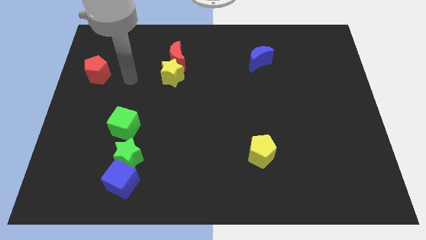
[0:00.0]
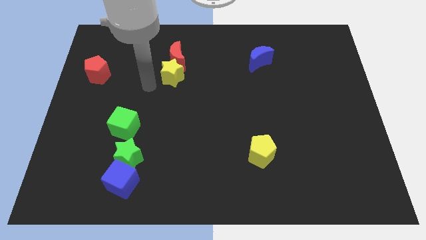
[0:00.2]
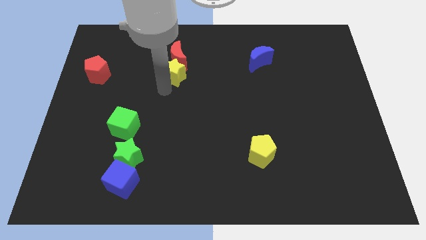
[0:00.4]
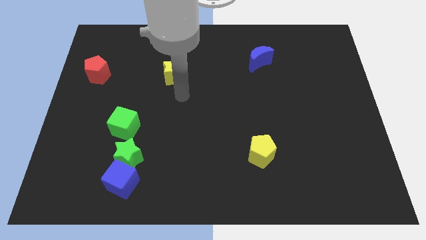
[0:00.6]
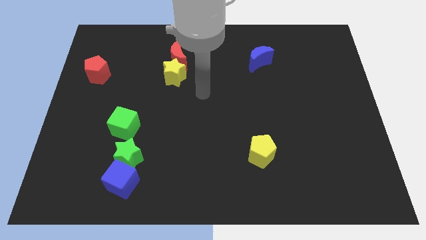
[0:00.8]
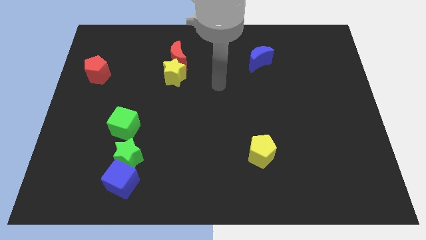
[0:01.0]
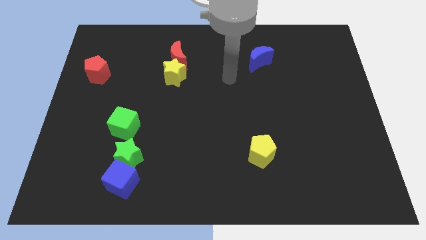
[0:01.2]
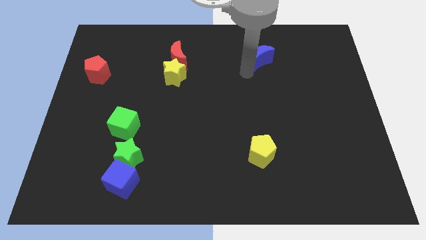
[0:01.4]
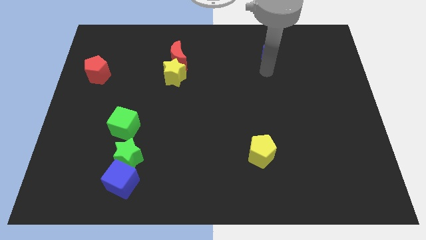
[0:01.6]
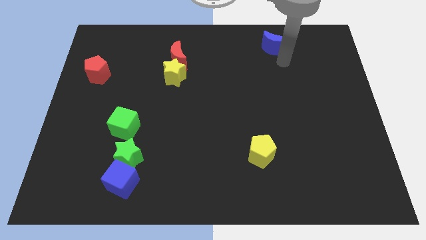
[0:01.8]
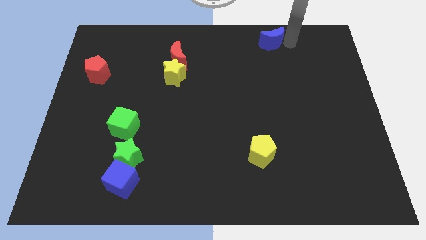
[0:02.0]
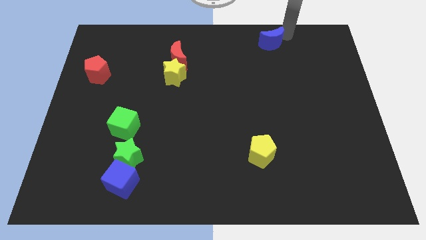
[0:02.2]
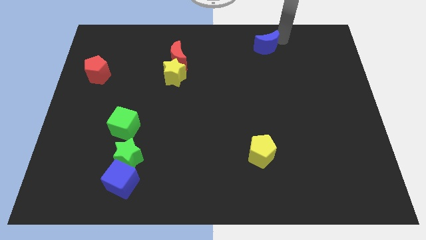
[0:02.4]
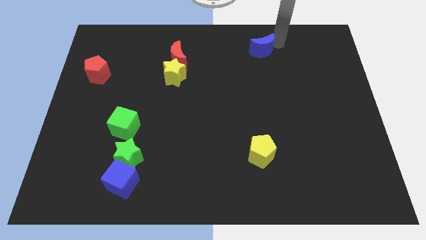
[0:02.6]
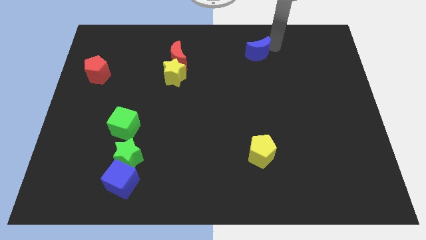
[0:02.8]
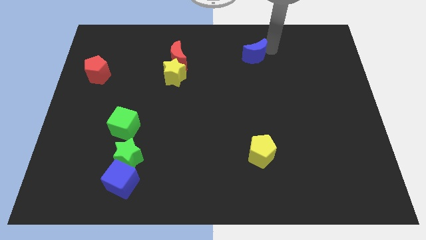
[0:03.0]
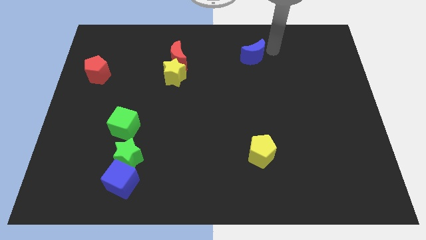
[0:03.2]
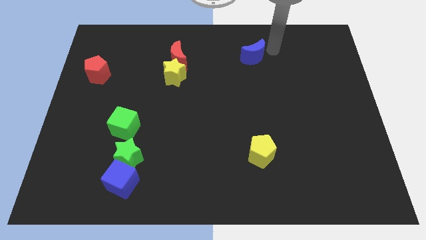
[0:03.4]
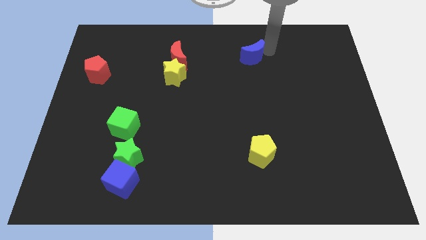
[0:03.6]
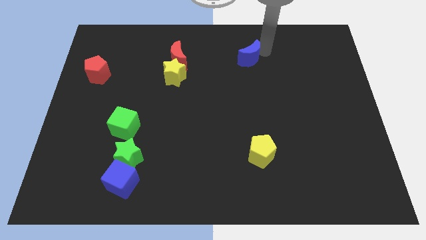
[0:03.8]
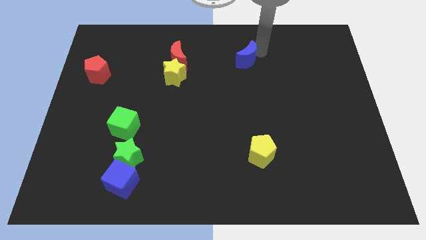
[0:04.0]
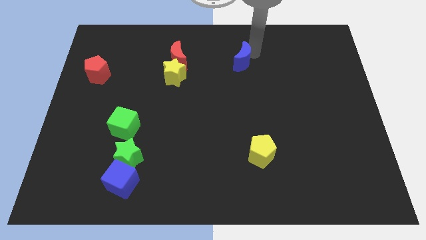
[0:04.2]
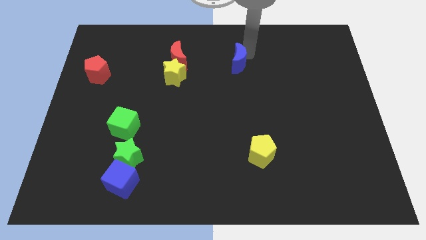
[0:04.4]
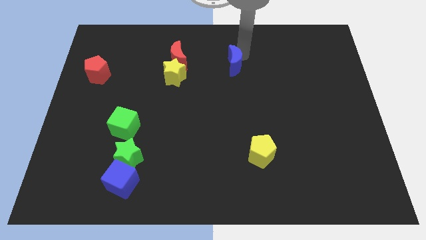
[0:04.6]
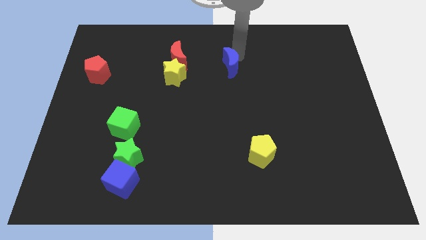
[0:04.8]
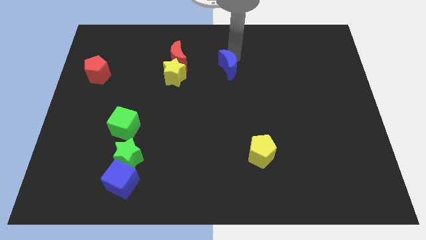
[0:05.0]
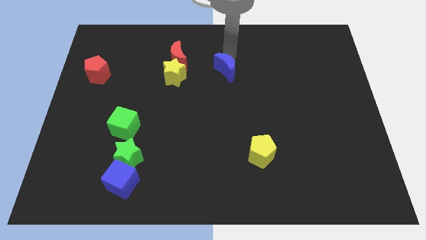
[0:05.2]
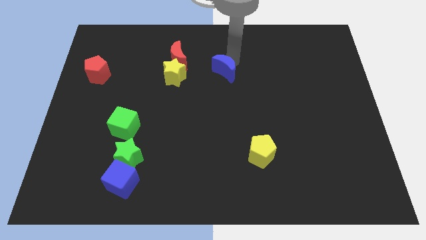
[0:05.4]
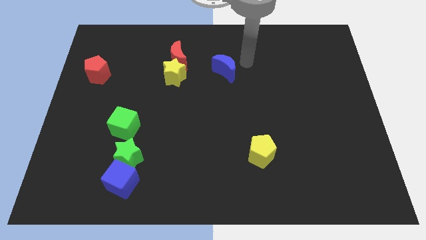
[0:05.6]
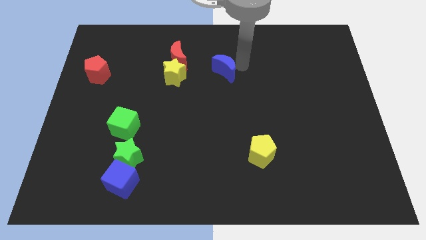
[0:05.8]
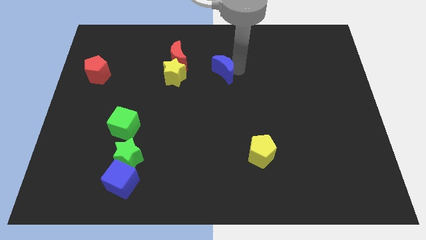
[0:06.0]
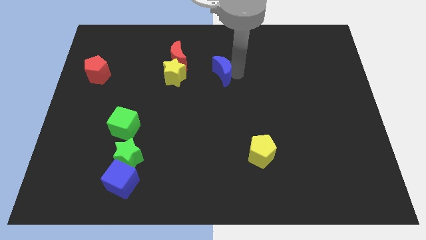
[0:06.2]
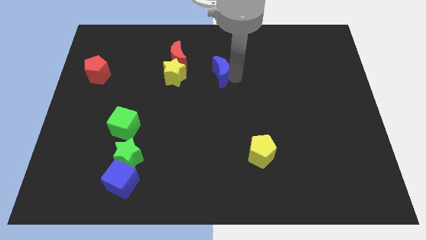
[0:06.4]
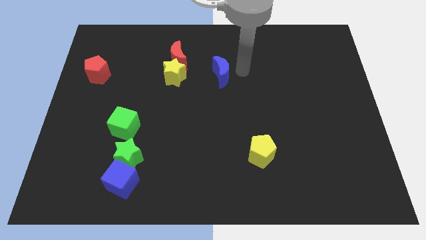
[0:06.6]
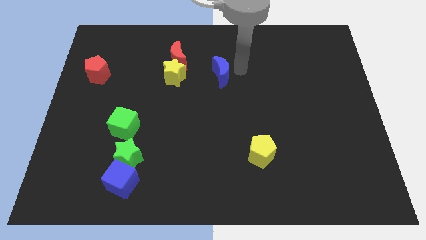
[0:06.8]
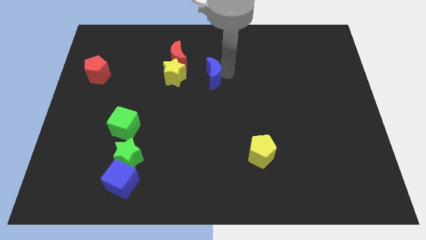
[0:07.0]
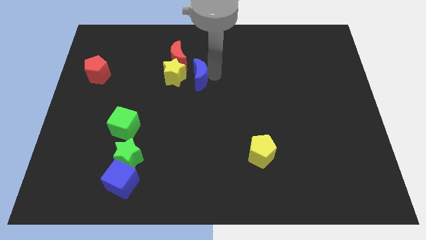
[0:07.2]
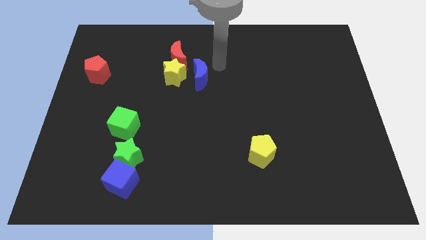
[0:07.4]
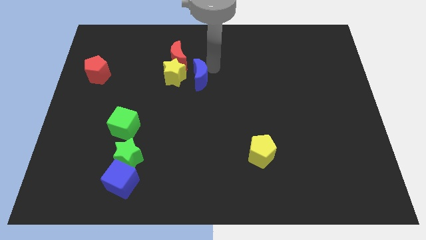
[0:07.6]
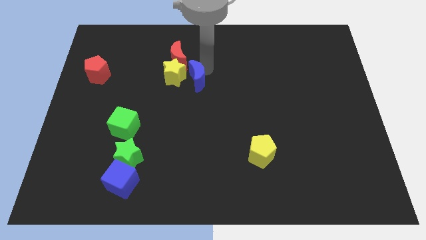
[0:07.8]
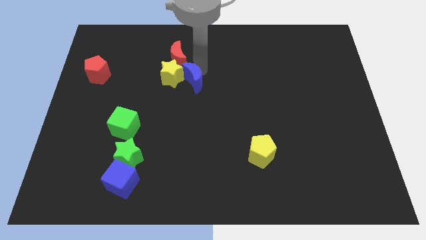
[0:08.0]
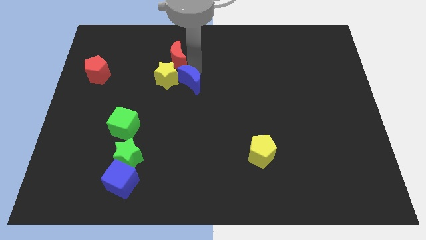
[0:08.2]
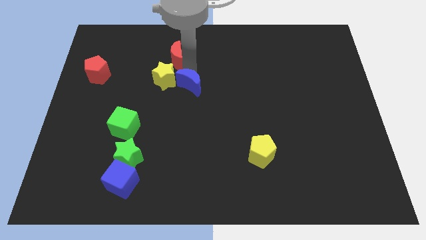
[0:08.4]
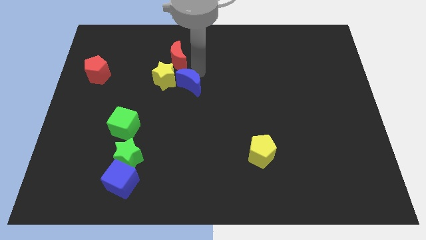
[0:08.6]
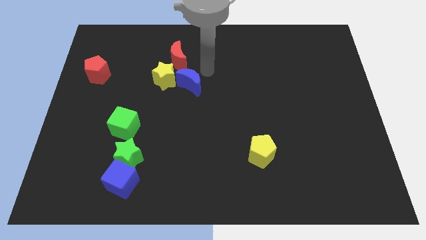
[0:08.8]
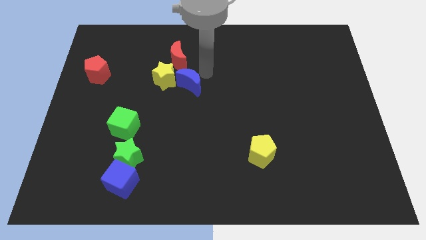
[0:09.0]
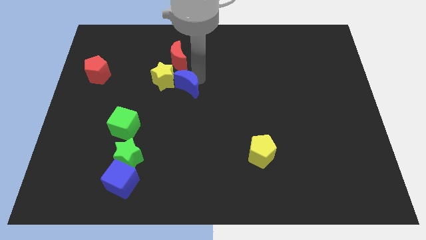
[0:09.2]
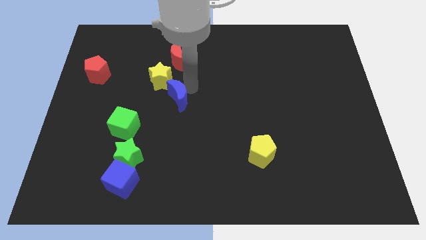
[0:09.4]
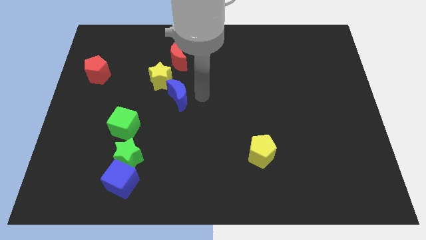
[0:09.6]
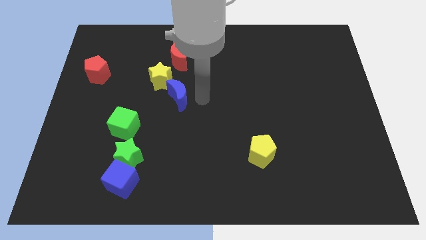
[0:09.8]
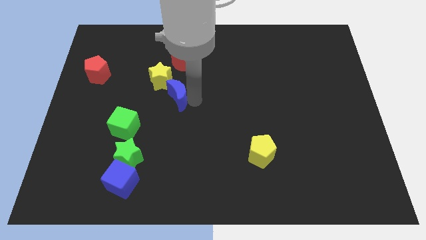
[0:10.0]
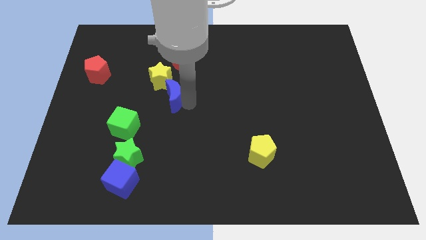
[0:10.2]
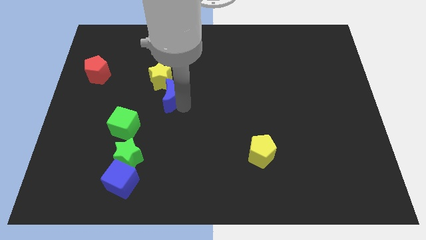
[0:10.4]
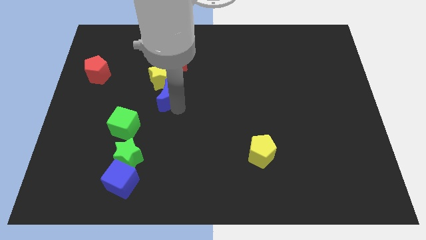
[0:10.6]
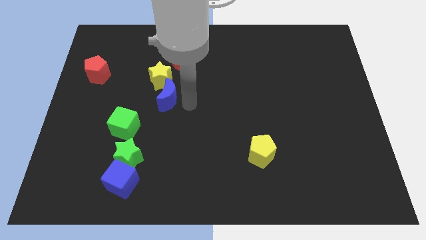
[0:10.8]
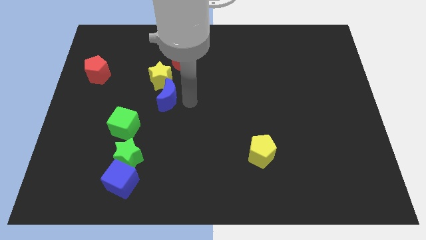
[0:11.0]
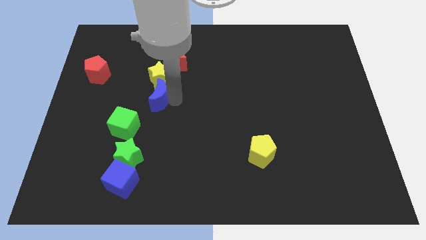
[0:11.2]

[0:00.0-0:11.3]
put the blue moon diagonally down and to the left of the yellow star

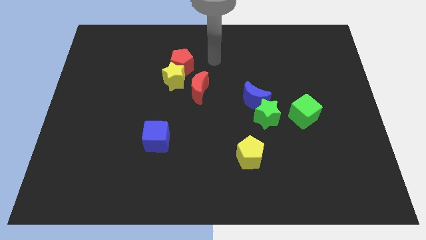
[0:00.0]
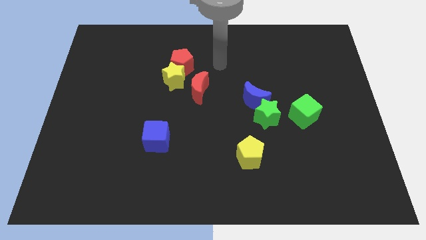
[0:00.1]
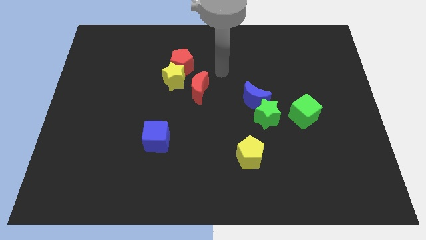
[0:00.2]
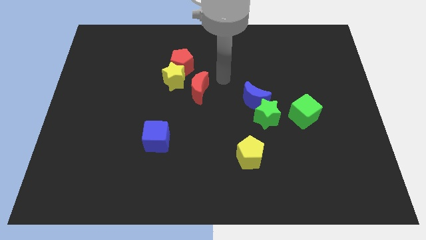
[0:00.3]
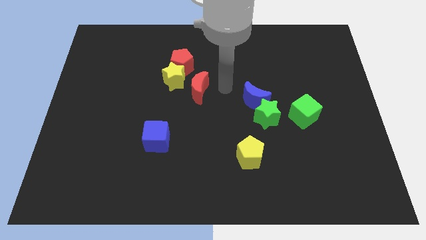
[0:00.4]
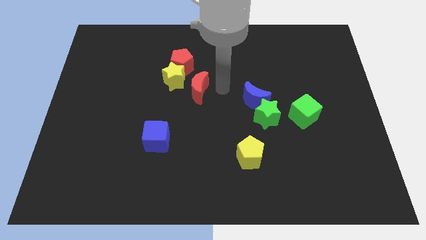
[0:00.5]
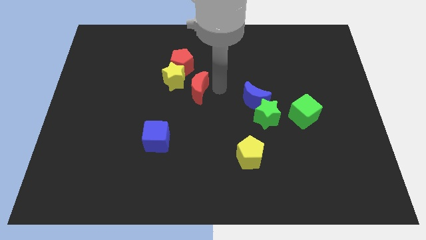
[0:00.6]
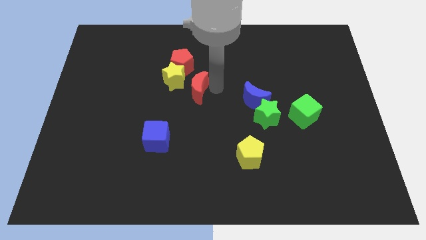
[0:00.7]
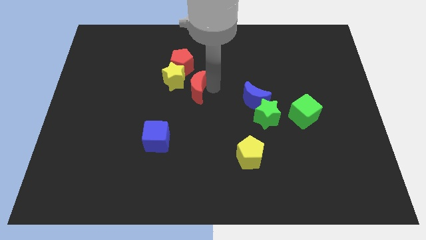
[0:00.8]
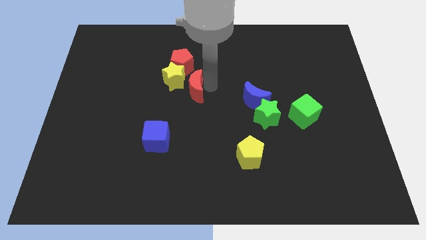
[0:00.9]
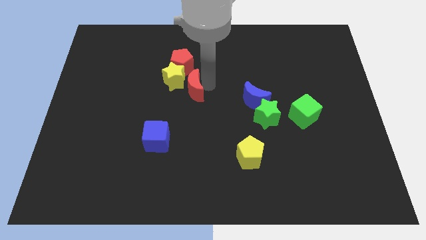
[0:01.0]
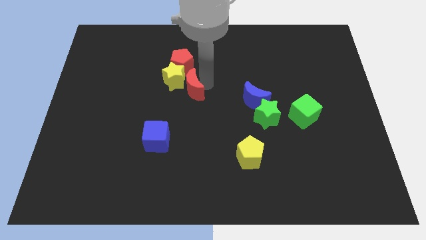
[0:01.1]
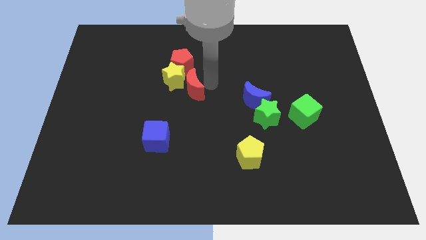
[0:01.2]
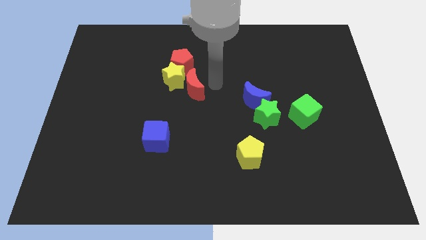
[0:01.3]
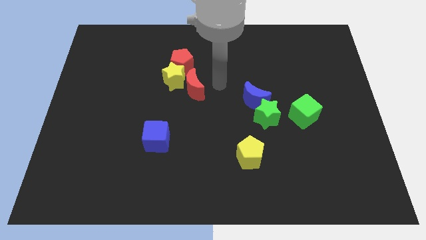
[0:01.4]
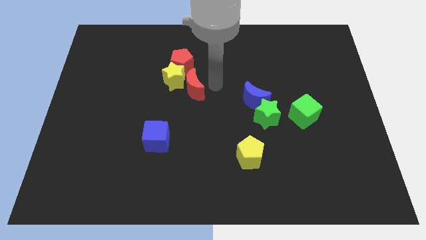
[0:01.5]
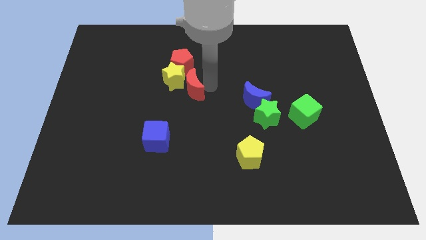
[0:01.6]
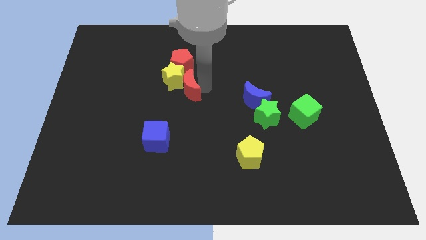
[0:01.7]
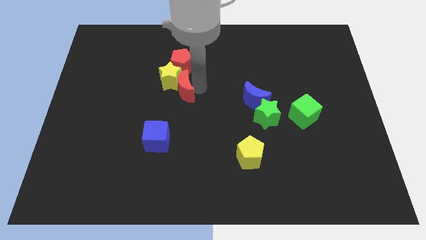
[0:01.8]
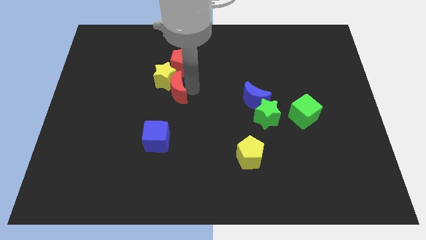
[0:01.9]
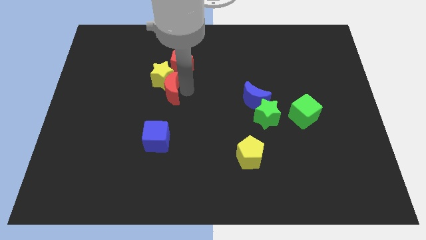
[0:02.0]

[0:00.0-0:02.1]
push the red moon to the bottom left side of the red pentagon
